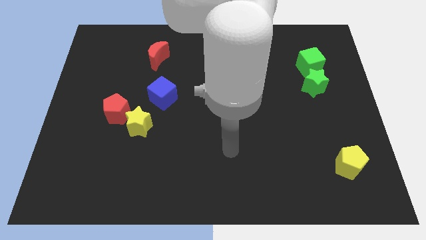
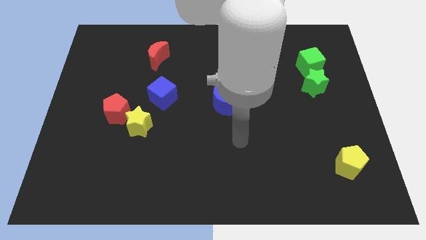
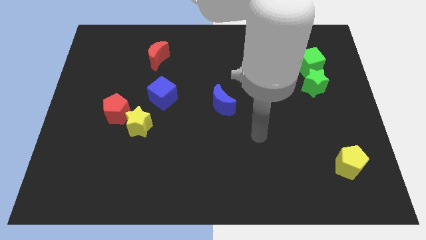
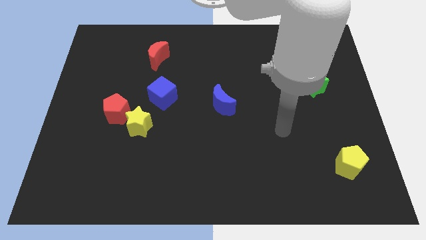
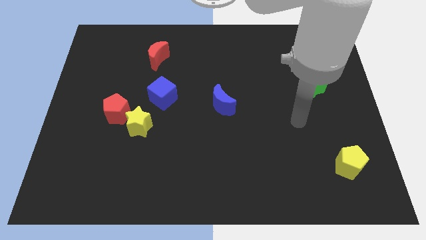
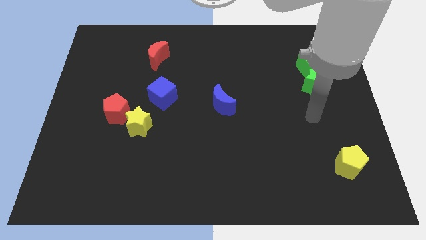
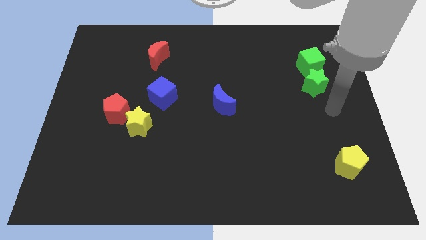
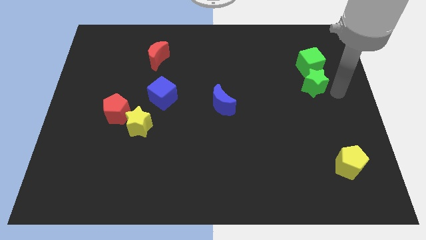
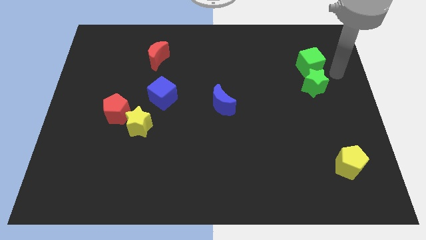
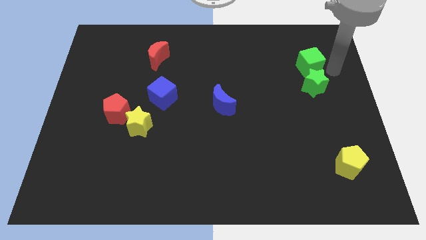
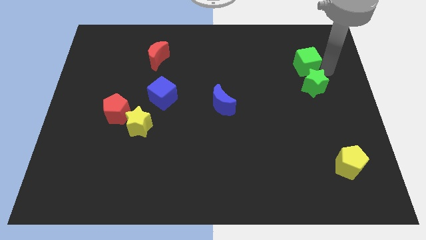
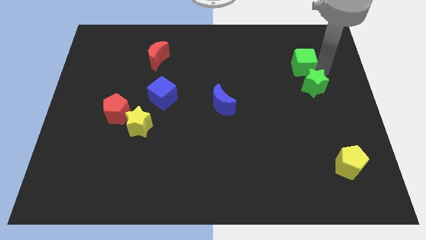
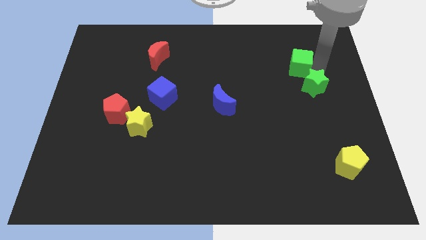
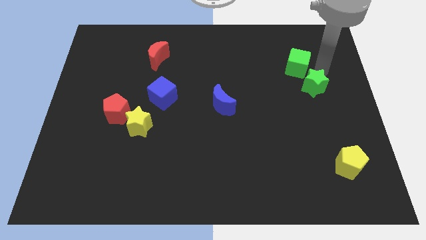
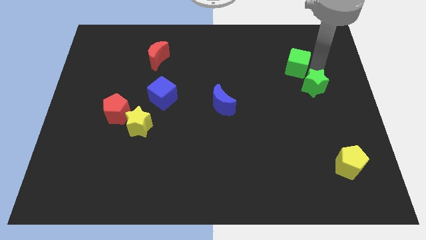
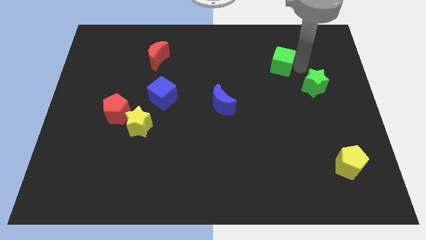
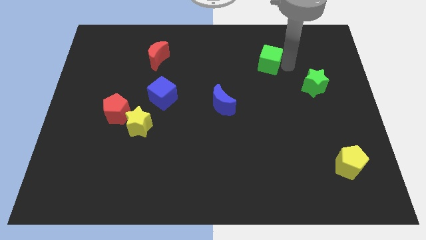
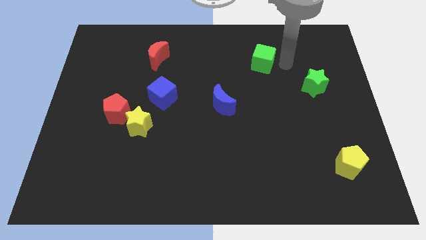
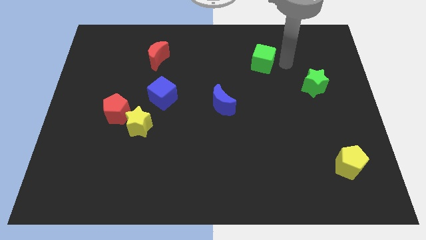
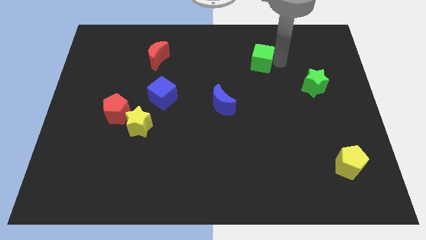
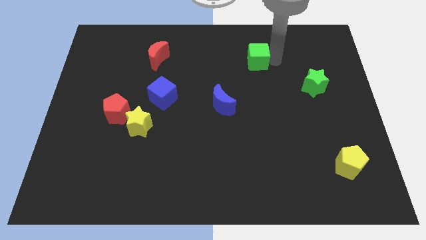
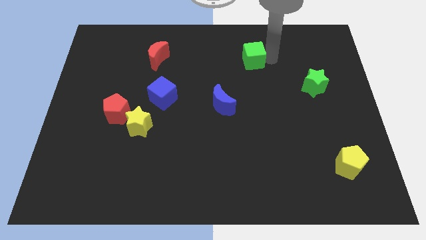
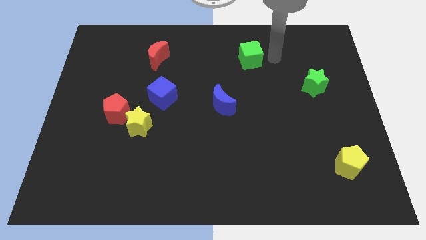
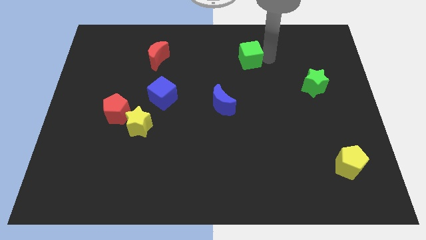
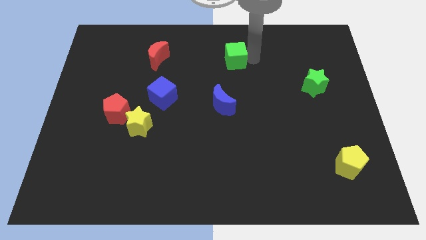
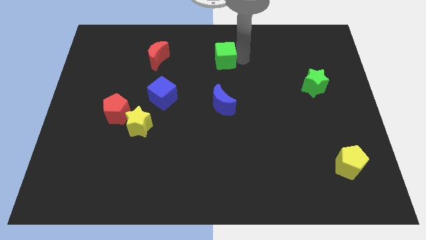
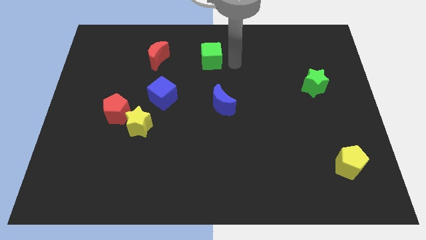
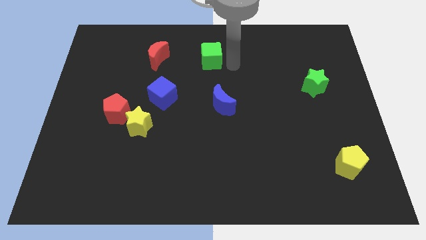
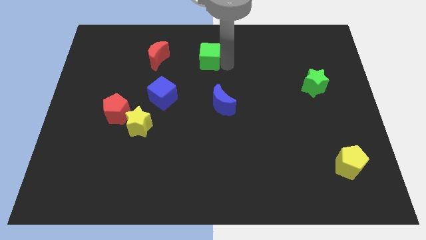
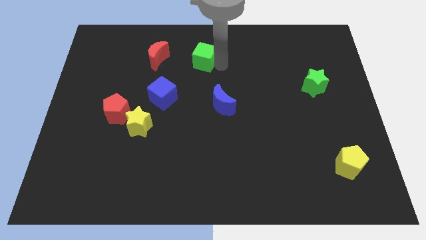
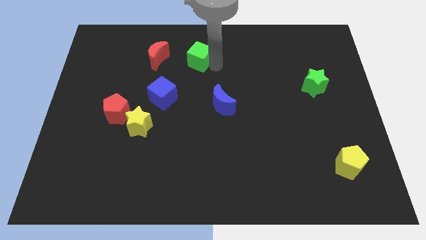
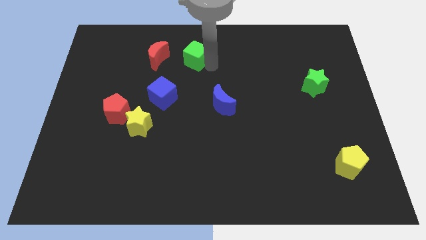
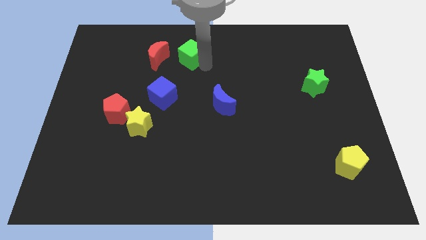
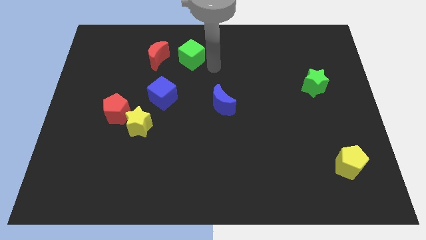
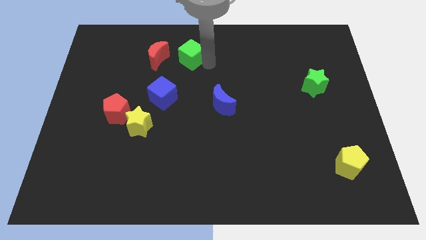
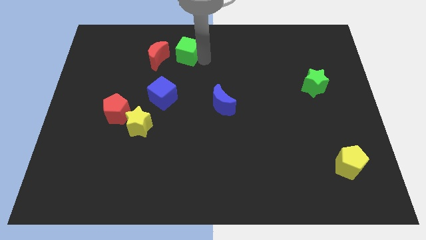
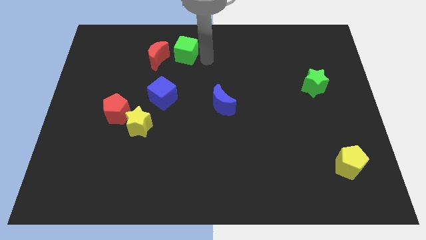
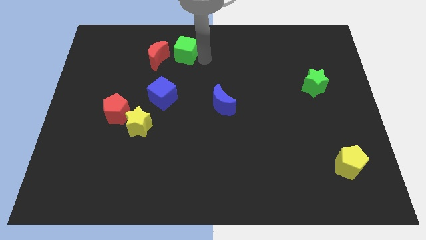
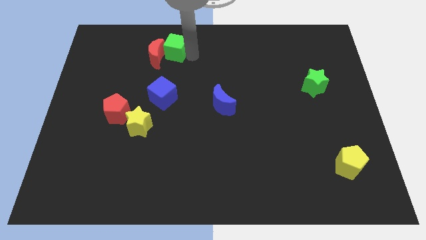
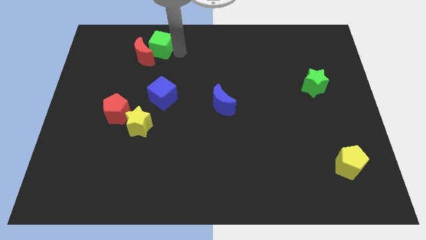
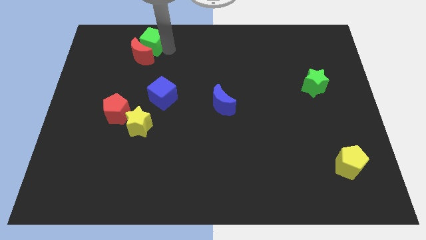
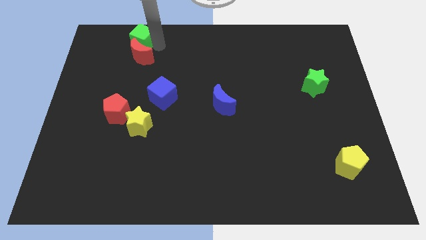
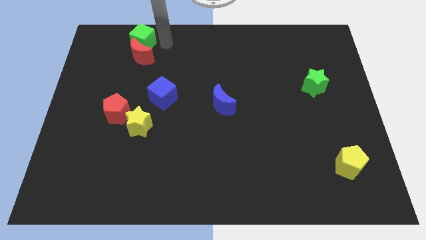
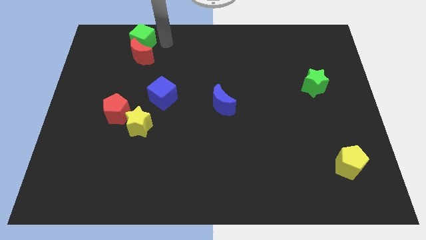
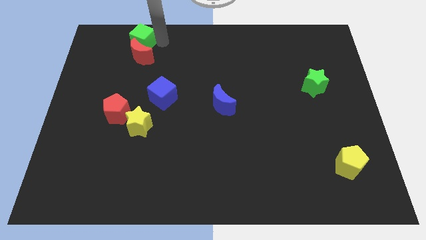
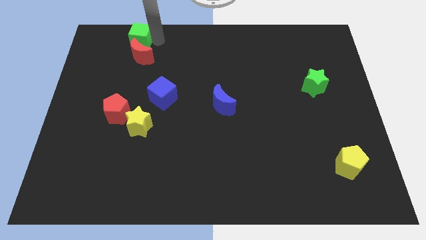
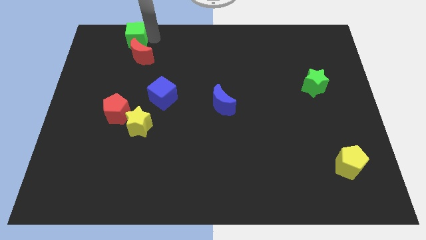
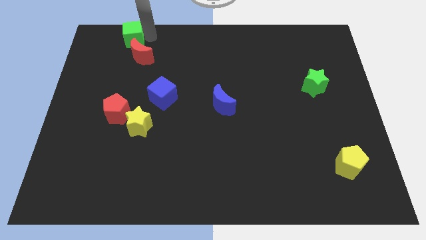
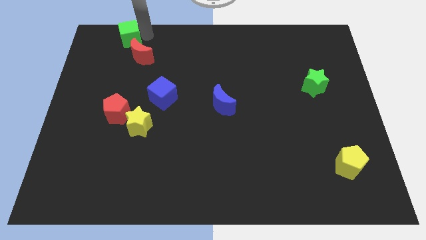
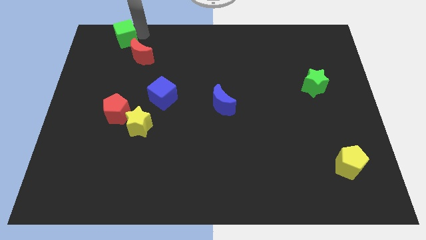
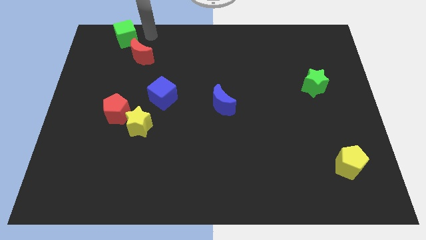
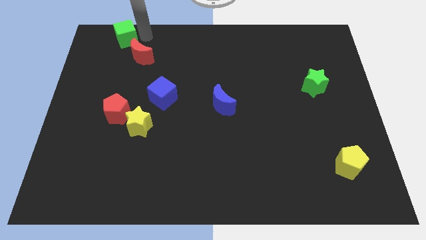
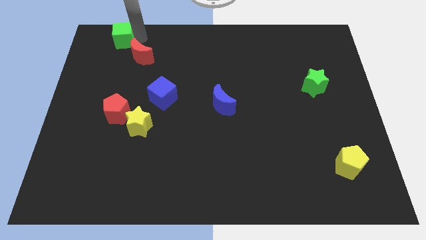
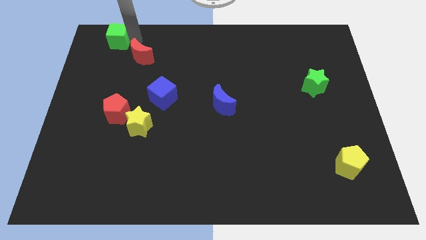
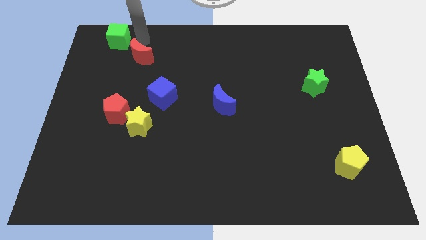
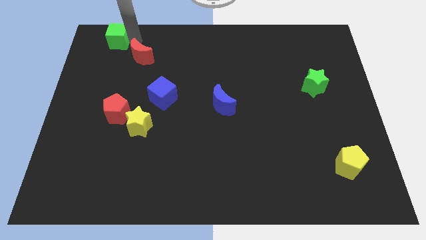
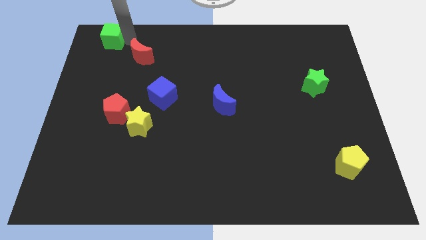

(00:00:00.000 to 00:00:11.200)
slide the green cube to the top left corner

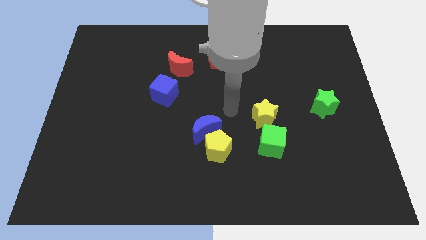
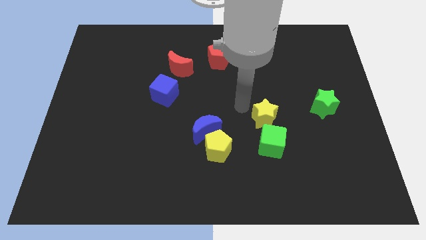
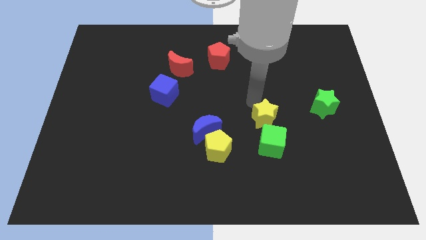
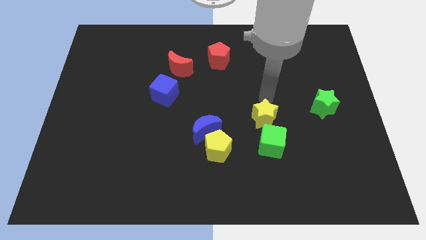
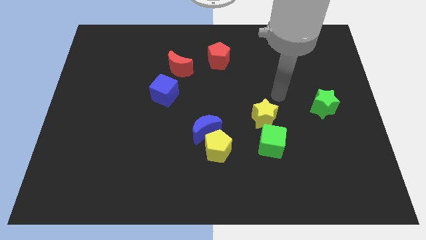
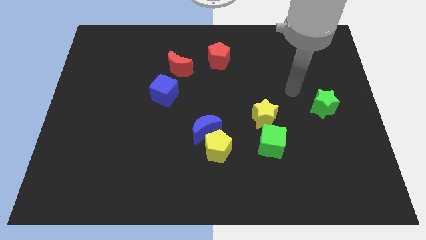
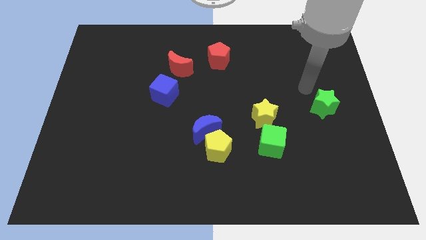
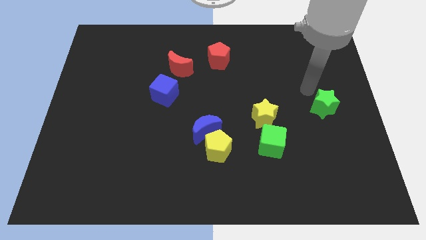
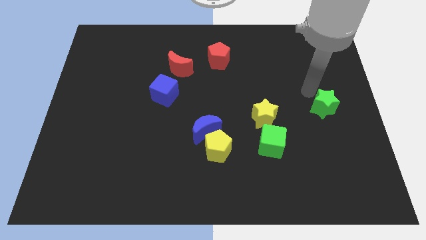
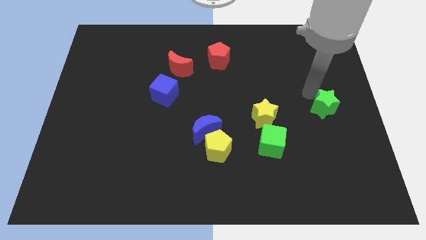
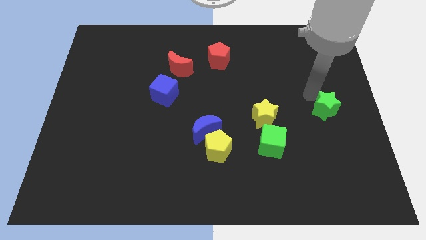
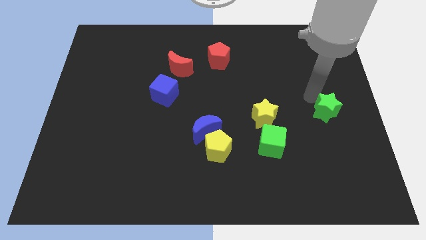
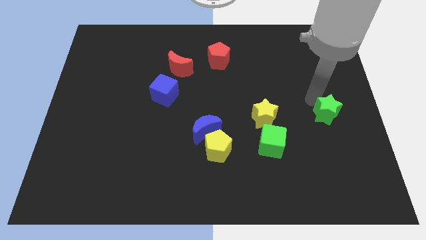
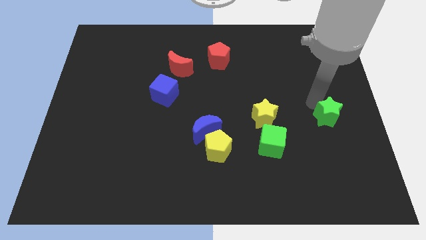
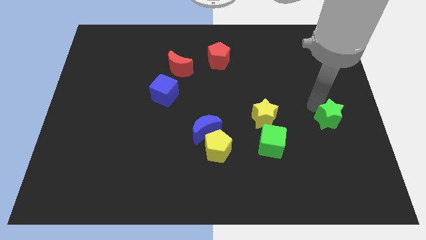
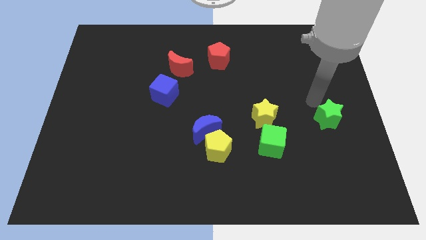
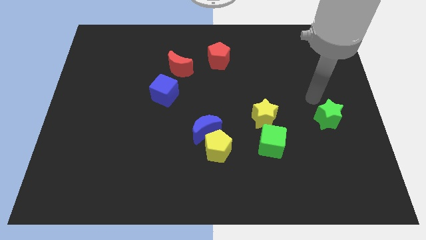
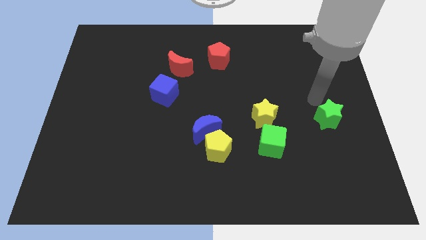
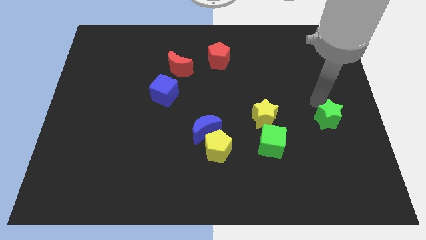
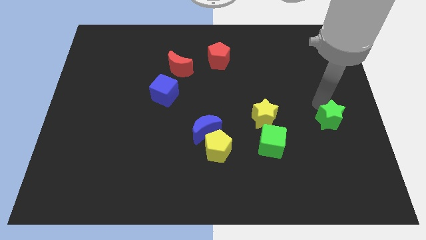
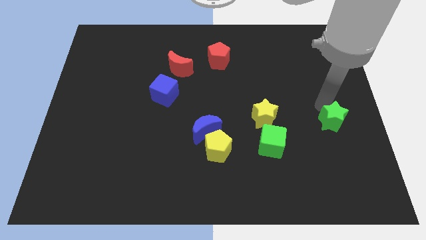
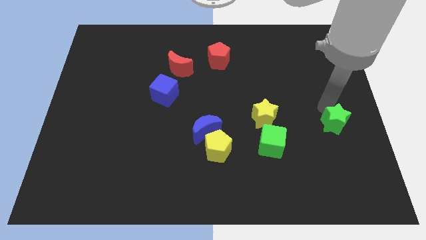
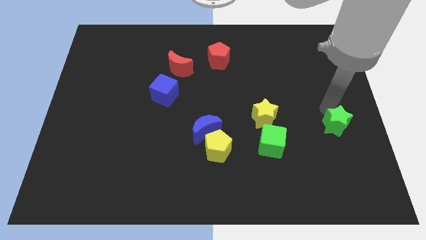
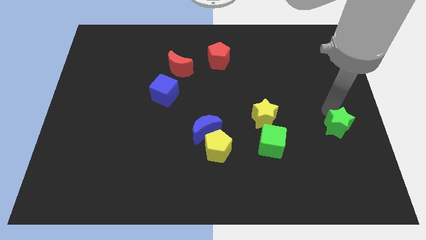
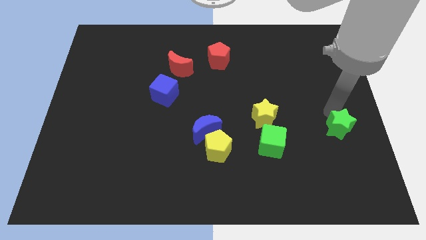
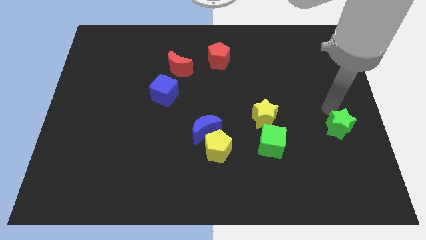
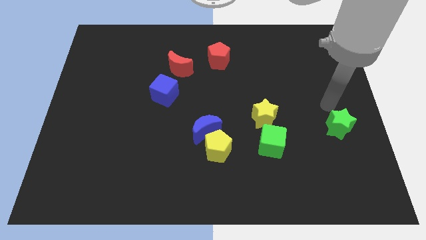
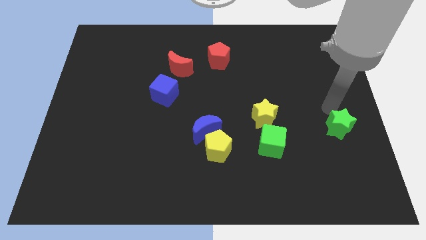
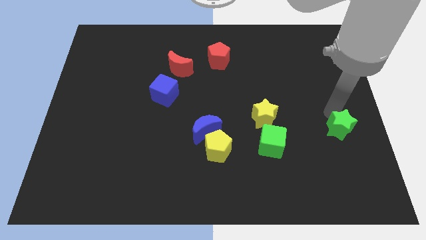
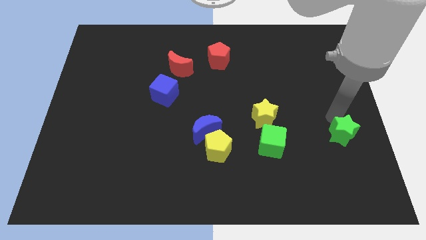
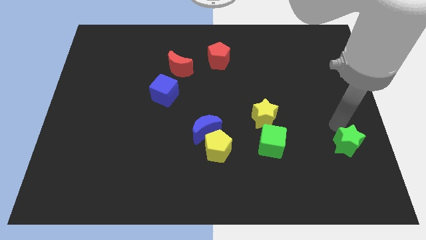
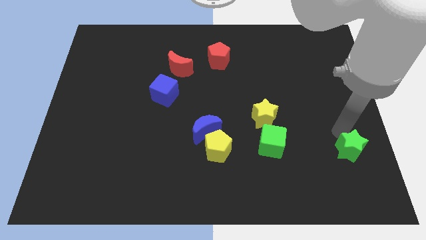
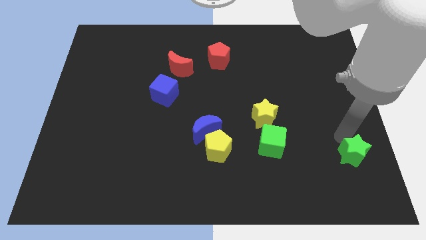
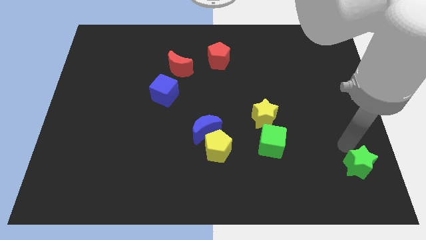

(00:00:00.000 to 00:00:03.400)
put the green star to the bottom right
